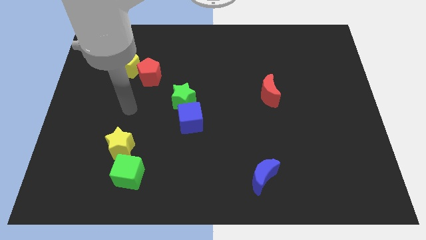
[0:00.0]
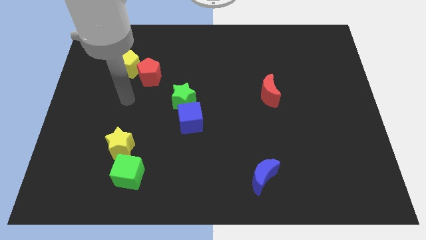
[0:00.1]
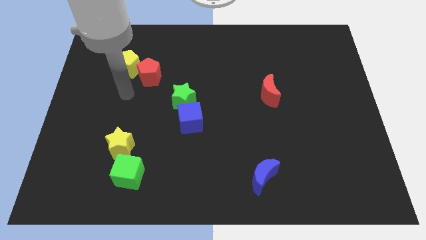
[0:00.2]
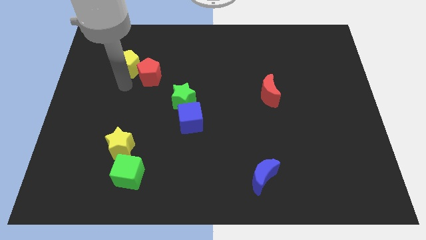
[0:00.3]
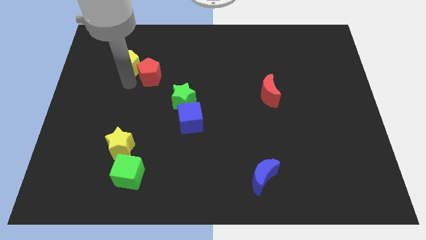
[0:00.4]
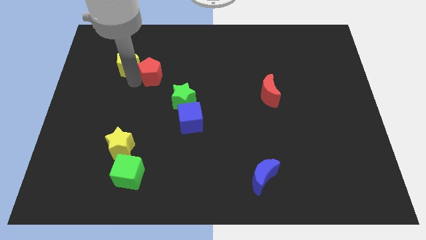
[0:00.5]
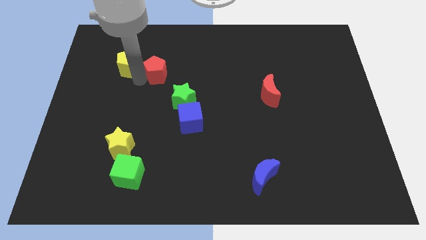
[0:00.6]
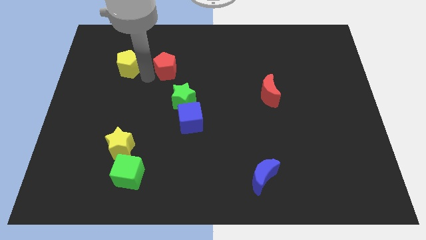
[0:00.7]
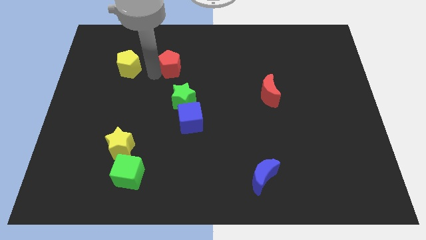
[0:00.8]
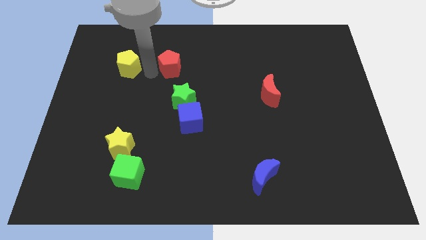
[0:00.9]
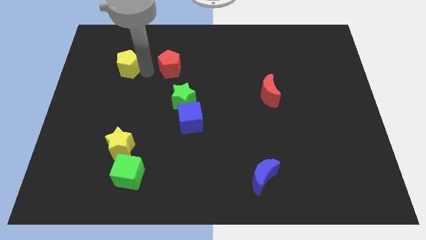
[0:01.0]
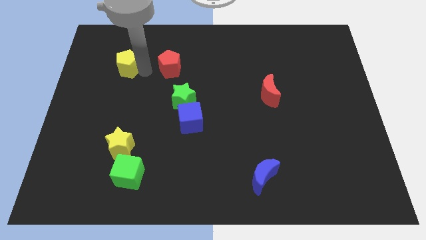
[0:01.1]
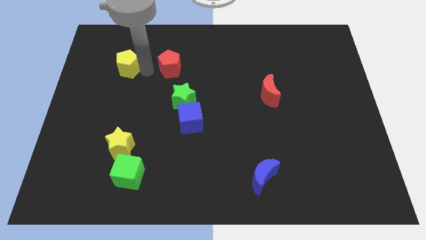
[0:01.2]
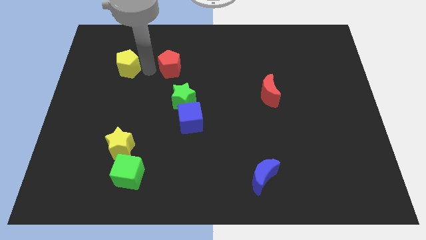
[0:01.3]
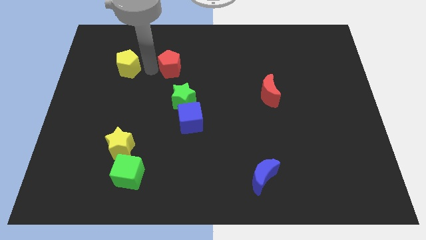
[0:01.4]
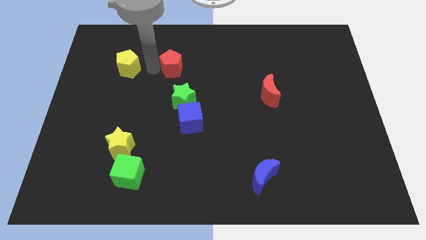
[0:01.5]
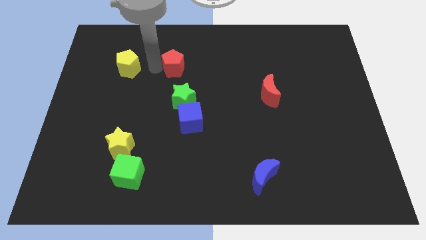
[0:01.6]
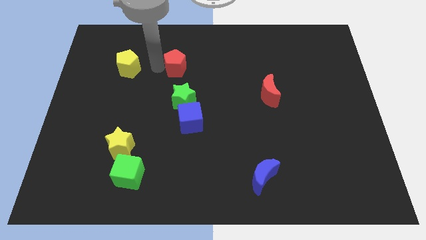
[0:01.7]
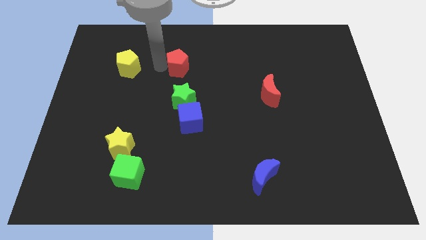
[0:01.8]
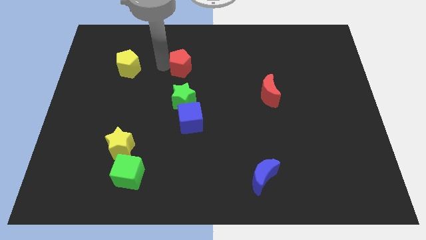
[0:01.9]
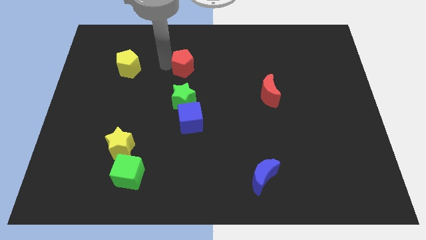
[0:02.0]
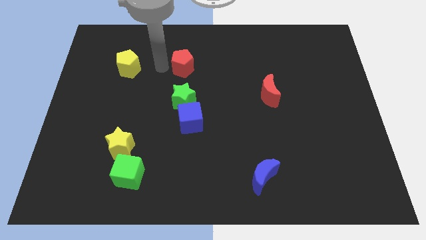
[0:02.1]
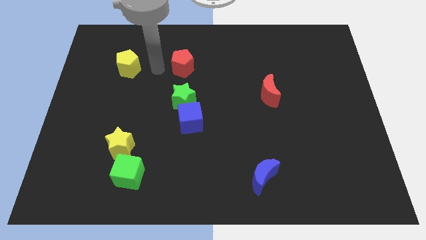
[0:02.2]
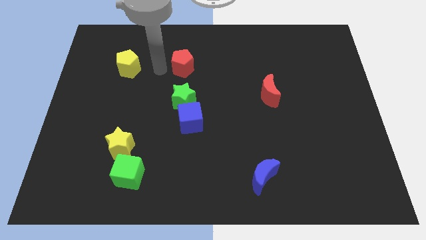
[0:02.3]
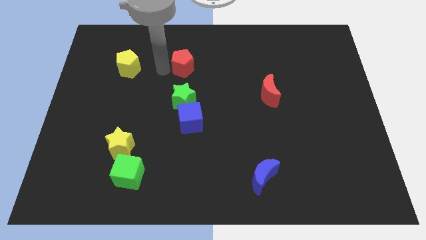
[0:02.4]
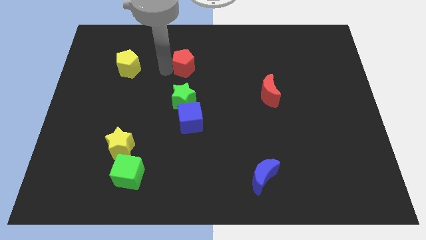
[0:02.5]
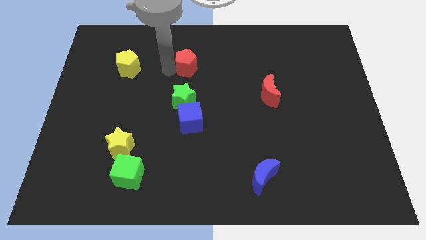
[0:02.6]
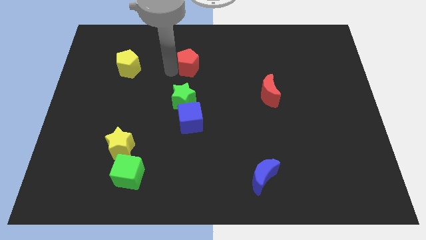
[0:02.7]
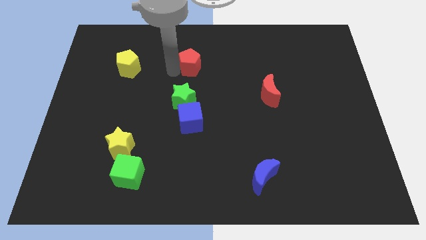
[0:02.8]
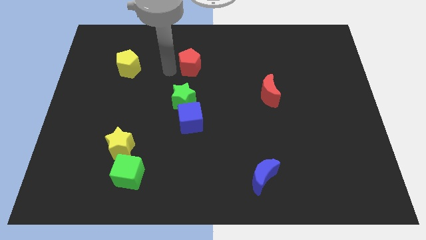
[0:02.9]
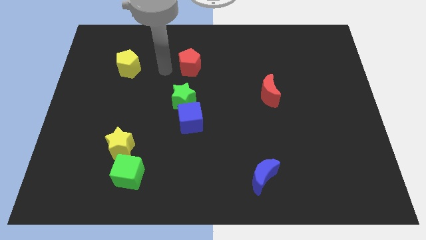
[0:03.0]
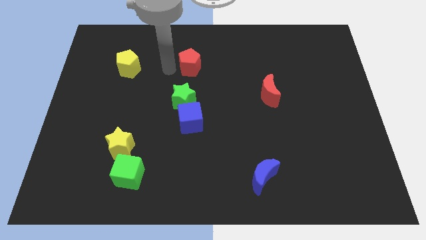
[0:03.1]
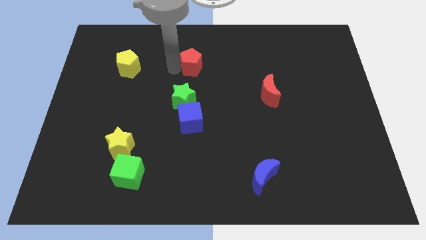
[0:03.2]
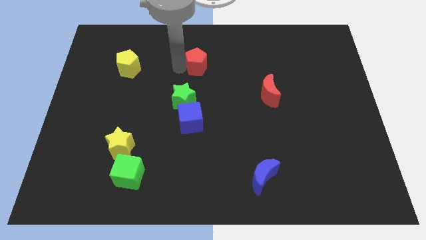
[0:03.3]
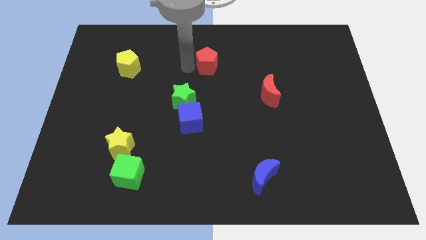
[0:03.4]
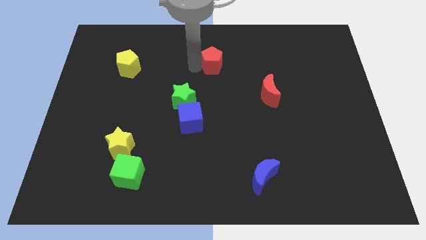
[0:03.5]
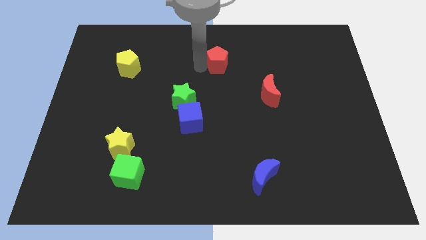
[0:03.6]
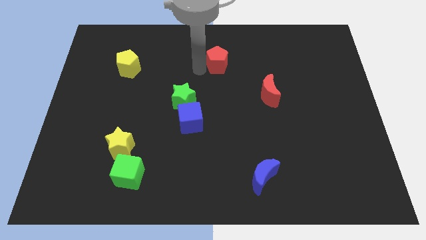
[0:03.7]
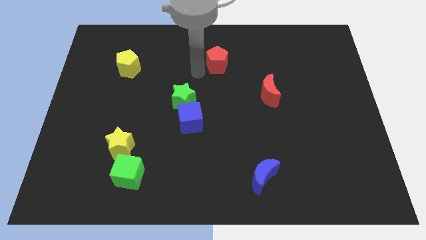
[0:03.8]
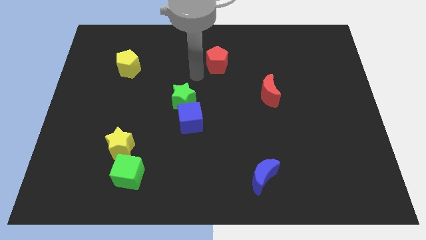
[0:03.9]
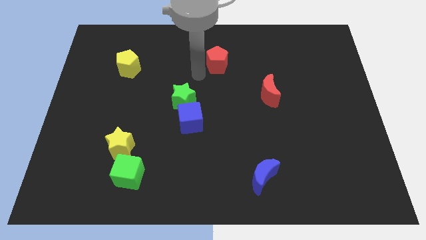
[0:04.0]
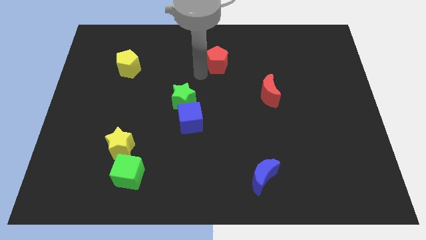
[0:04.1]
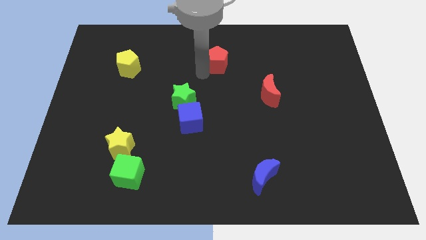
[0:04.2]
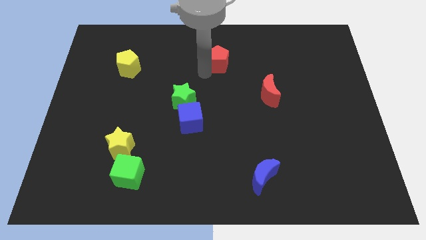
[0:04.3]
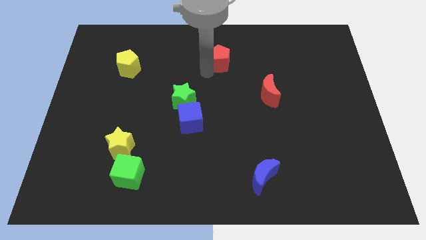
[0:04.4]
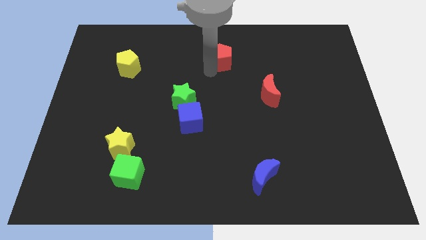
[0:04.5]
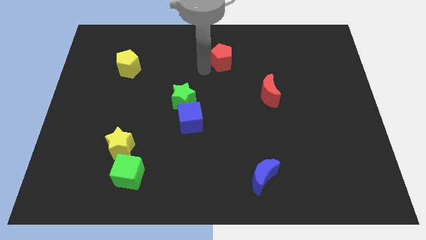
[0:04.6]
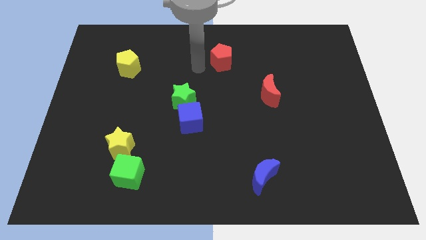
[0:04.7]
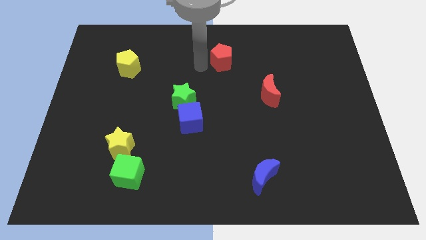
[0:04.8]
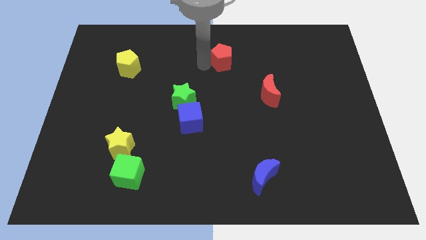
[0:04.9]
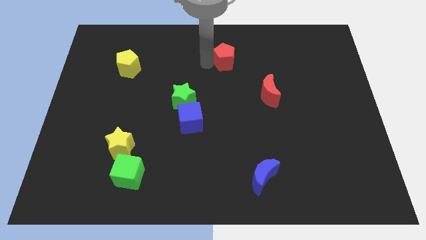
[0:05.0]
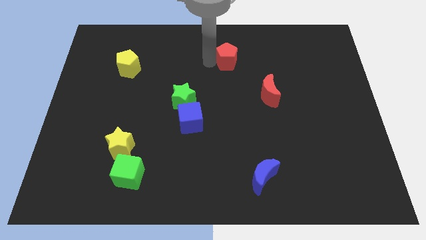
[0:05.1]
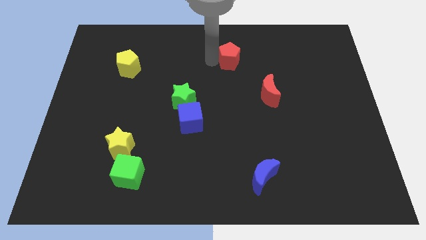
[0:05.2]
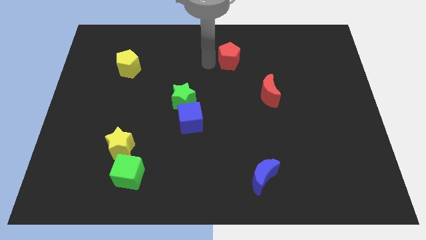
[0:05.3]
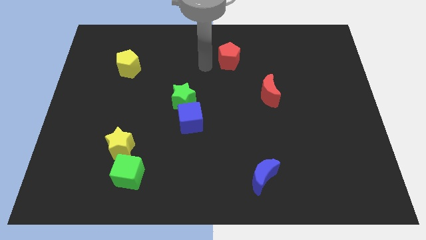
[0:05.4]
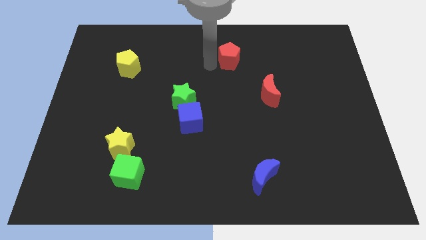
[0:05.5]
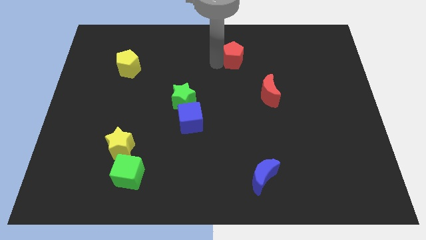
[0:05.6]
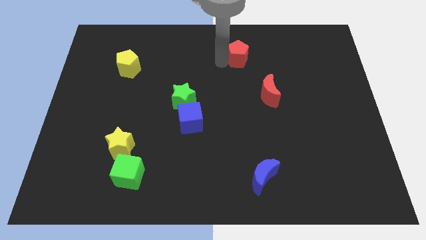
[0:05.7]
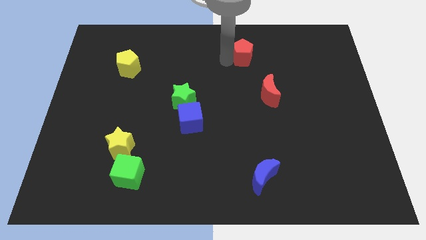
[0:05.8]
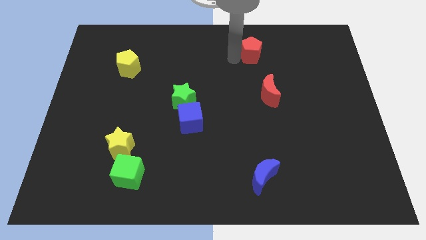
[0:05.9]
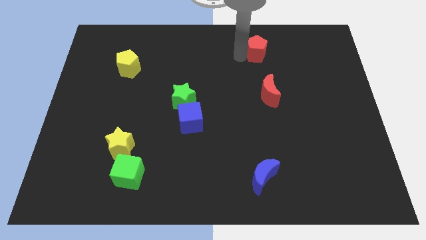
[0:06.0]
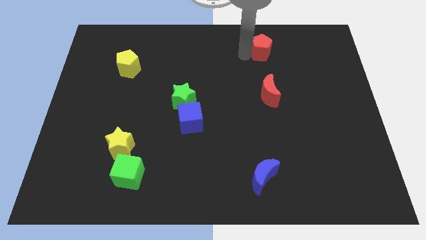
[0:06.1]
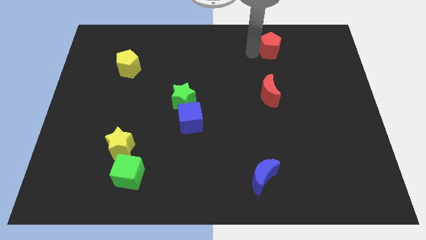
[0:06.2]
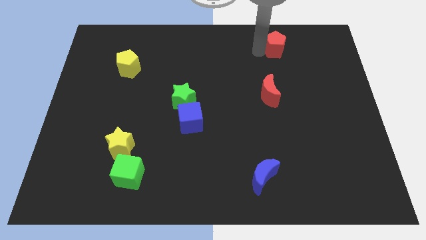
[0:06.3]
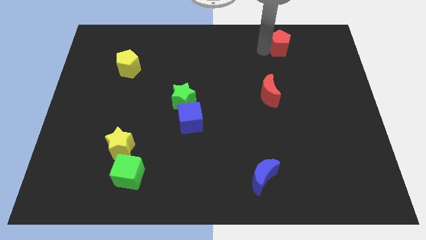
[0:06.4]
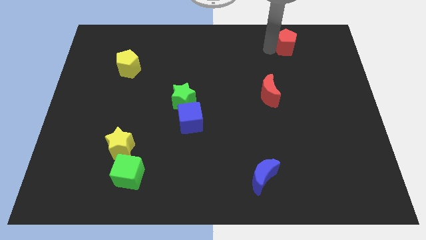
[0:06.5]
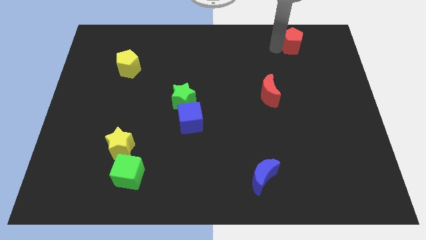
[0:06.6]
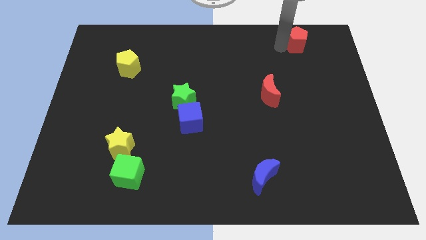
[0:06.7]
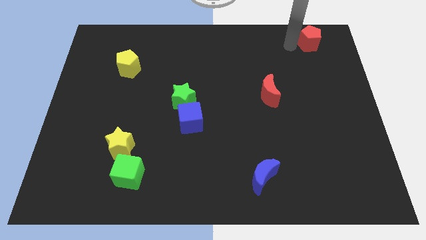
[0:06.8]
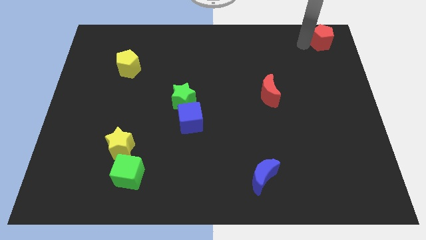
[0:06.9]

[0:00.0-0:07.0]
put the red pentagon to the top right of the board
